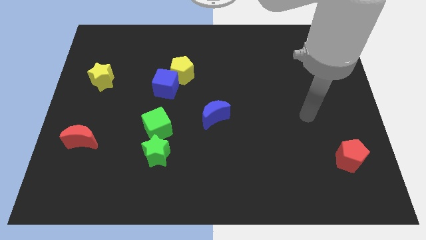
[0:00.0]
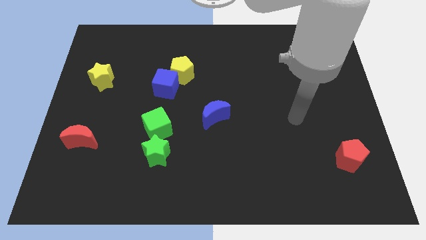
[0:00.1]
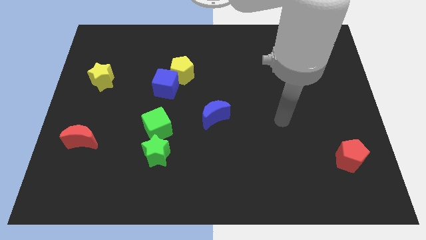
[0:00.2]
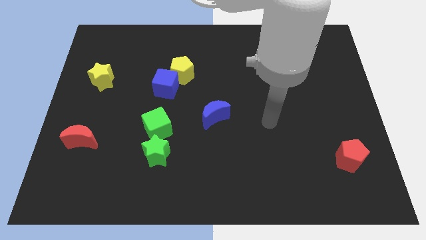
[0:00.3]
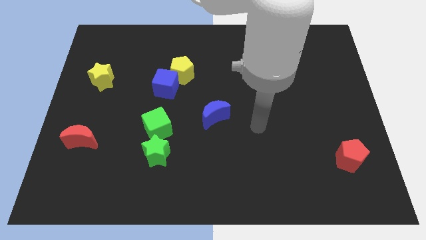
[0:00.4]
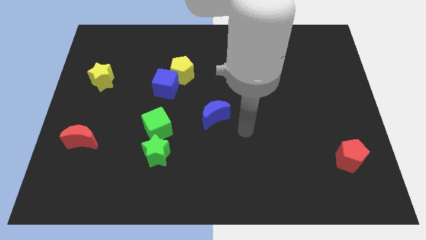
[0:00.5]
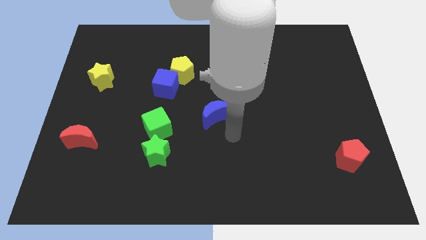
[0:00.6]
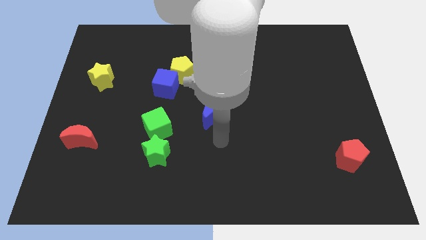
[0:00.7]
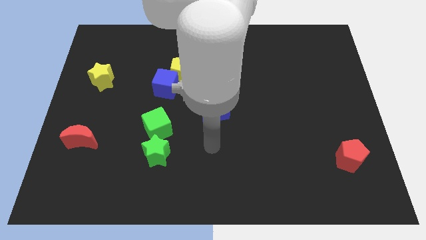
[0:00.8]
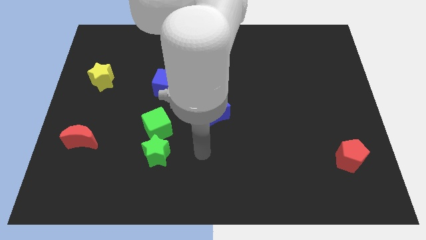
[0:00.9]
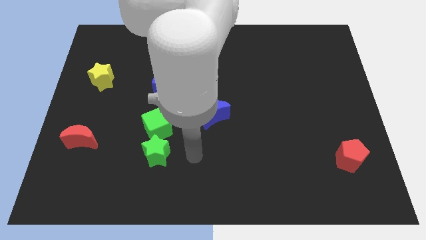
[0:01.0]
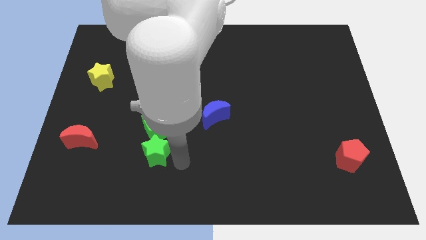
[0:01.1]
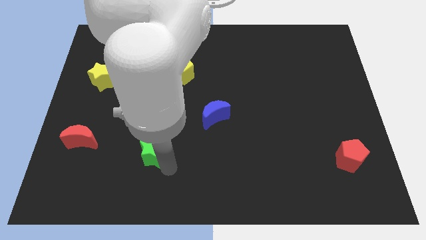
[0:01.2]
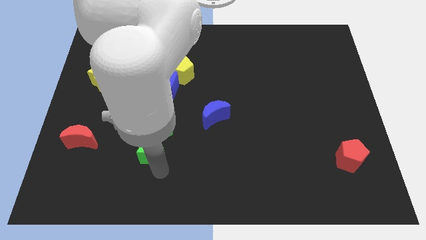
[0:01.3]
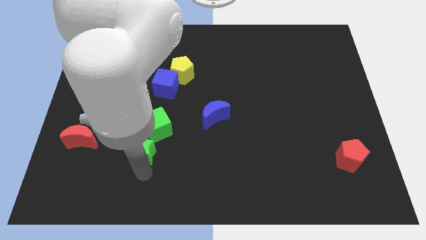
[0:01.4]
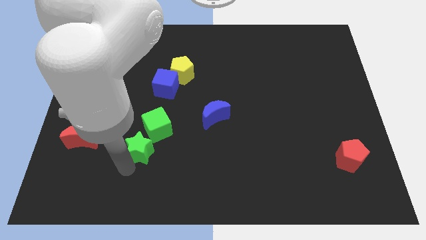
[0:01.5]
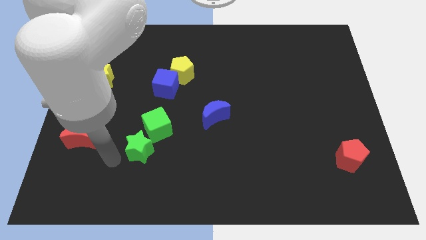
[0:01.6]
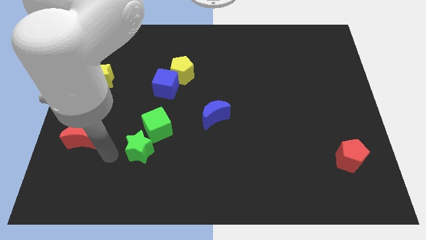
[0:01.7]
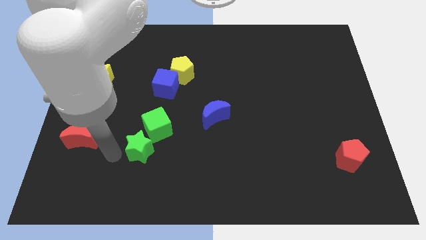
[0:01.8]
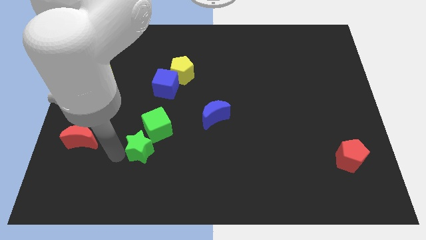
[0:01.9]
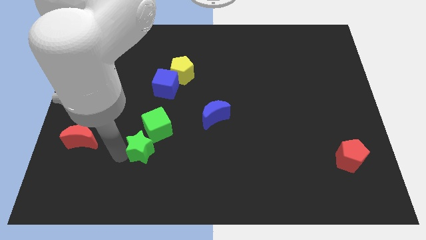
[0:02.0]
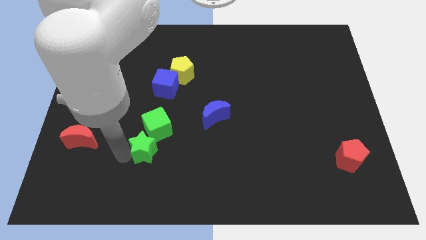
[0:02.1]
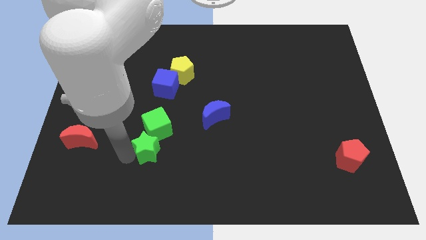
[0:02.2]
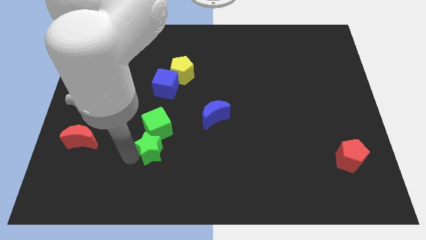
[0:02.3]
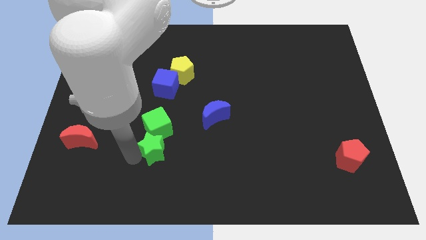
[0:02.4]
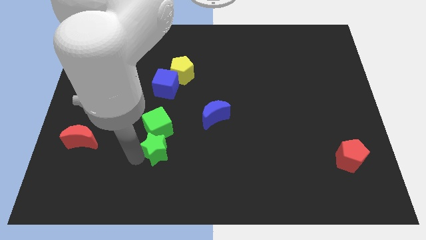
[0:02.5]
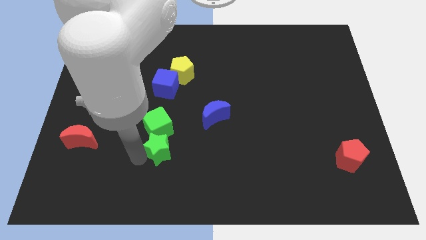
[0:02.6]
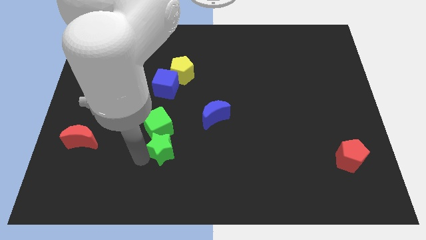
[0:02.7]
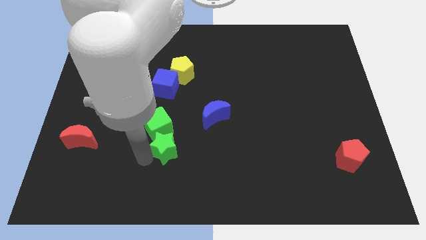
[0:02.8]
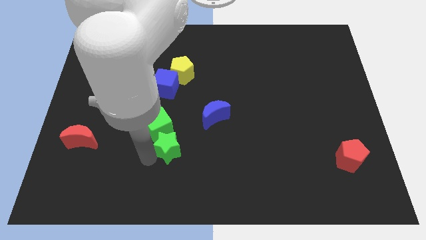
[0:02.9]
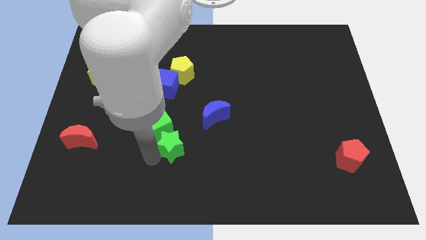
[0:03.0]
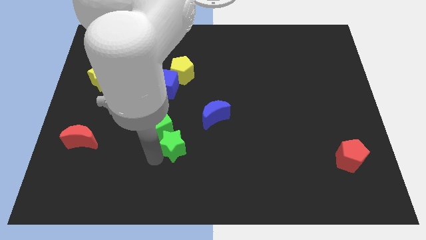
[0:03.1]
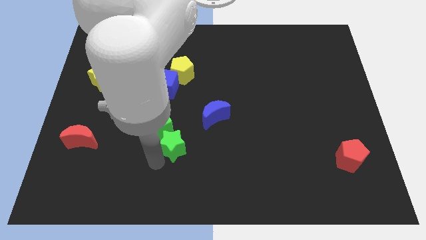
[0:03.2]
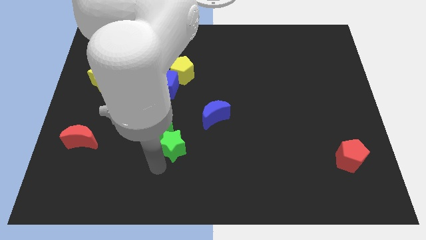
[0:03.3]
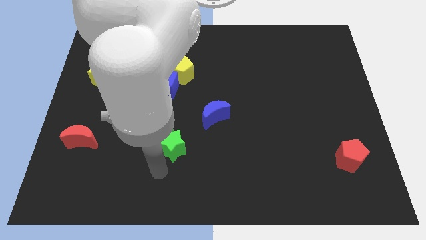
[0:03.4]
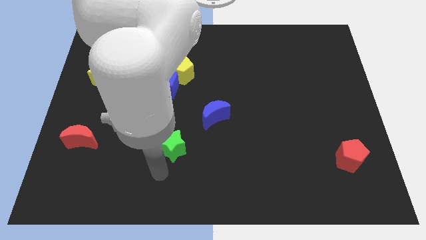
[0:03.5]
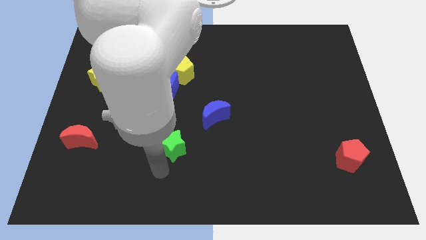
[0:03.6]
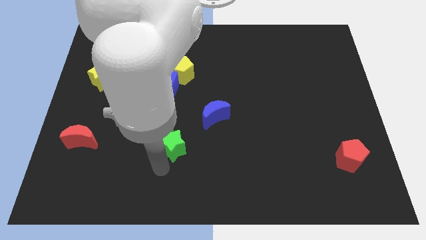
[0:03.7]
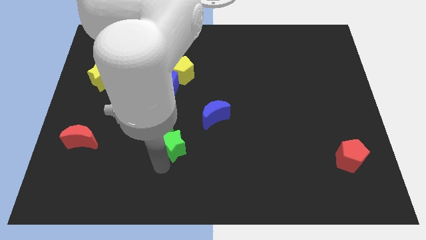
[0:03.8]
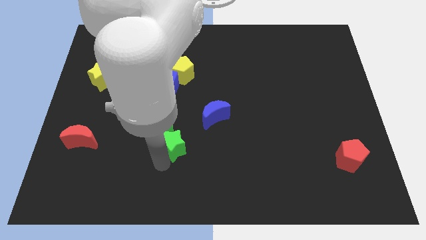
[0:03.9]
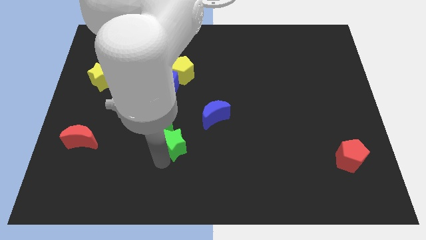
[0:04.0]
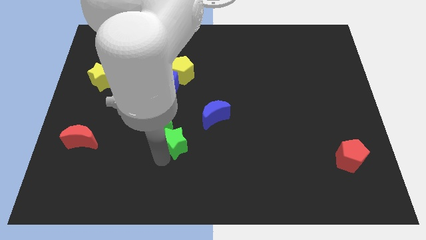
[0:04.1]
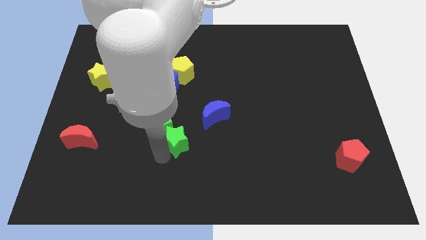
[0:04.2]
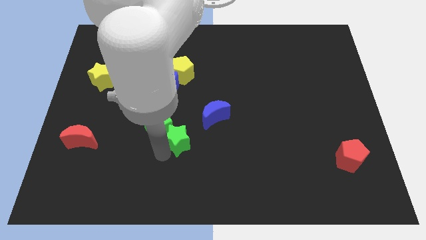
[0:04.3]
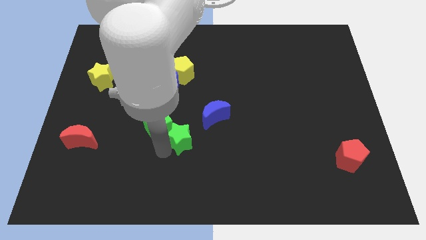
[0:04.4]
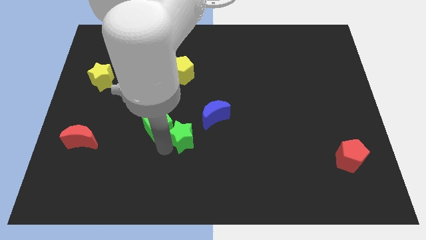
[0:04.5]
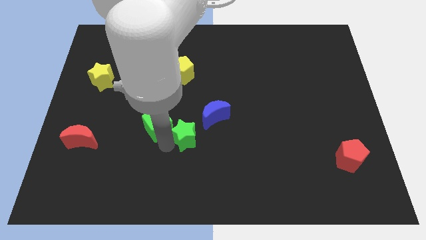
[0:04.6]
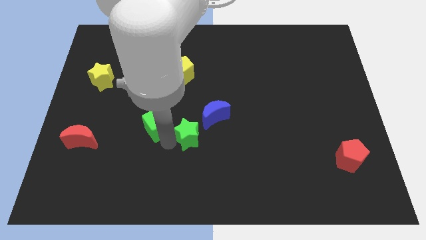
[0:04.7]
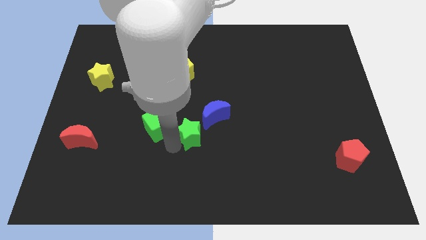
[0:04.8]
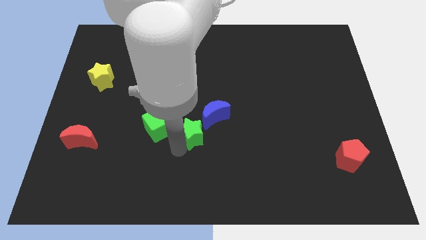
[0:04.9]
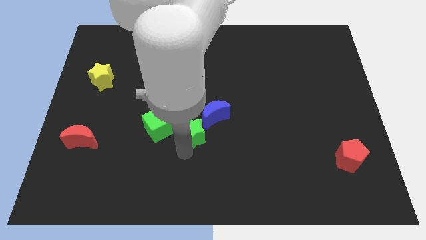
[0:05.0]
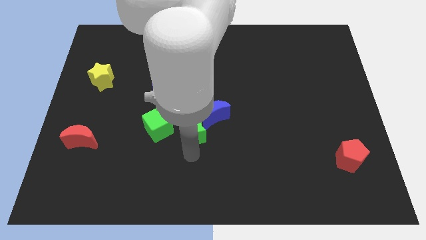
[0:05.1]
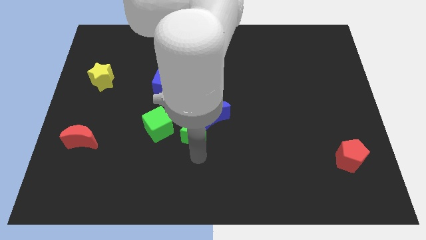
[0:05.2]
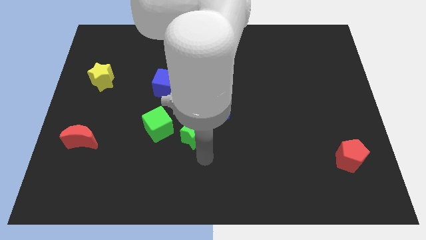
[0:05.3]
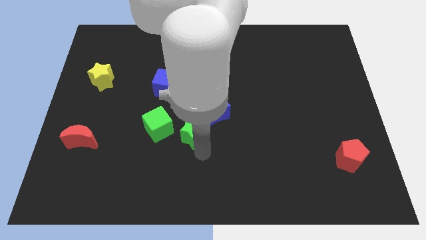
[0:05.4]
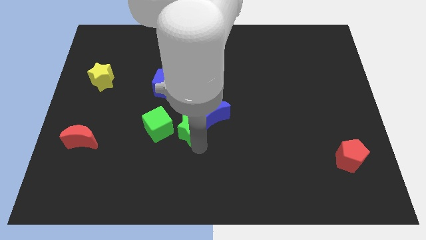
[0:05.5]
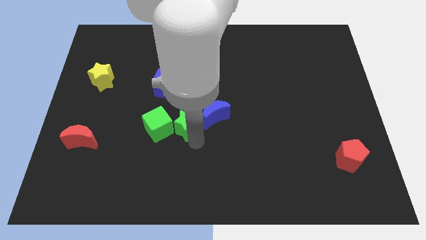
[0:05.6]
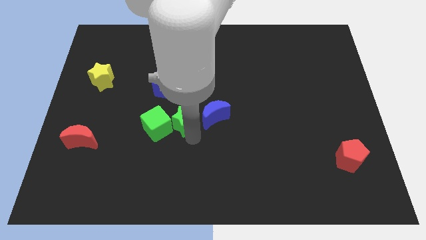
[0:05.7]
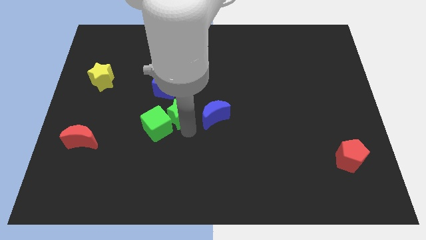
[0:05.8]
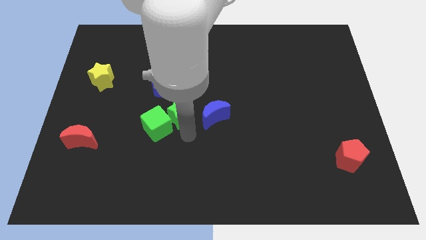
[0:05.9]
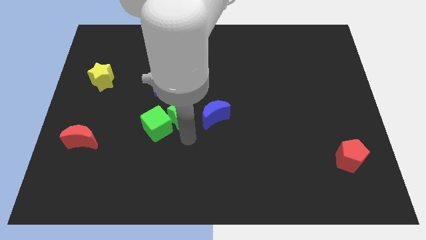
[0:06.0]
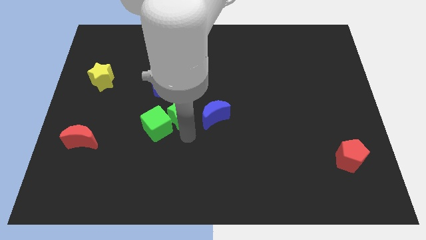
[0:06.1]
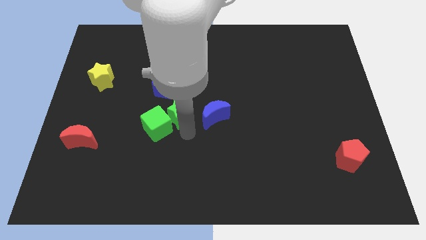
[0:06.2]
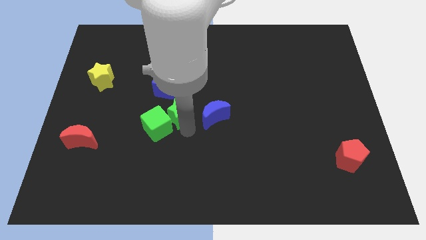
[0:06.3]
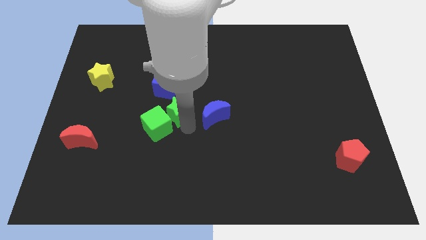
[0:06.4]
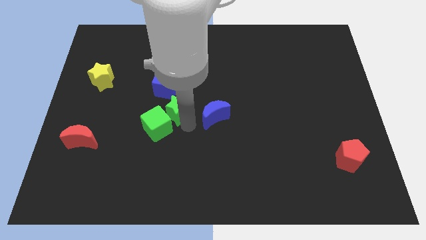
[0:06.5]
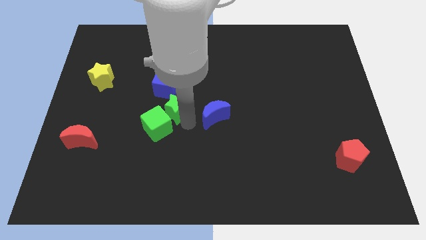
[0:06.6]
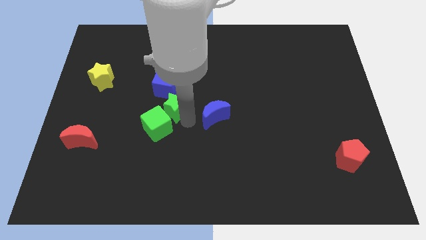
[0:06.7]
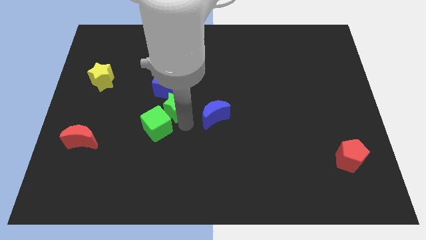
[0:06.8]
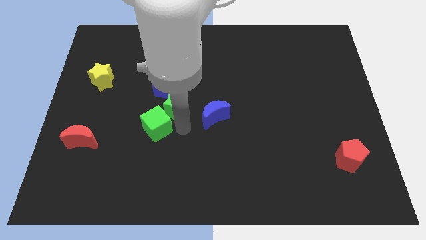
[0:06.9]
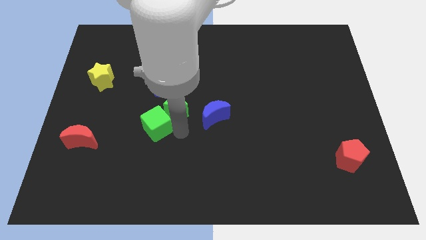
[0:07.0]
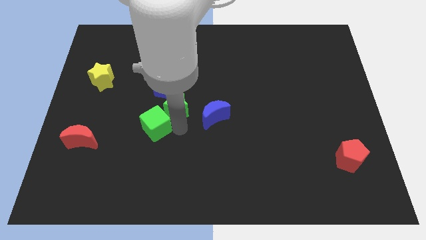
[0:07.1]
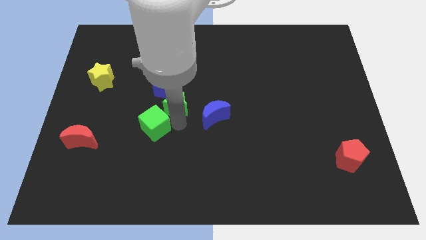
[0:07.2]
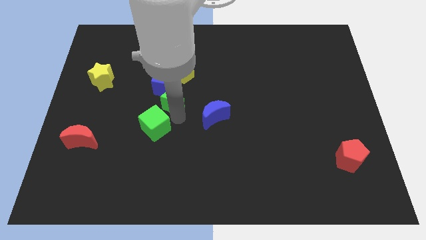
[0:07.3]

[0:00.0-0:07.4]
slide the green star to the blue cube
